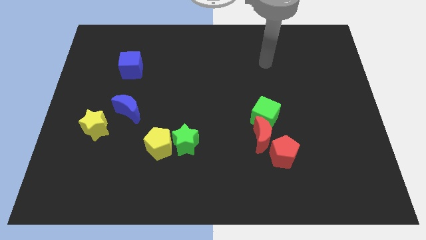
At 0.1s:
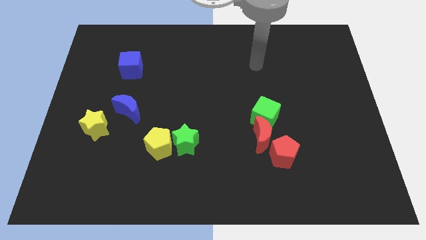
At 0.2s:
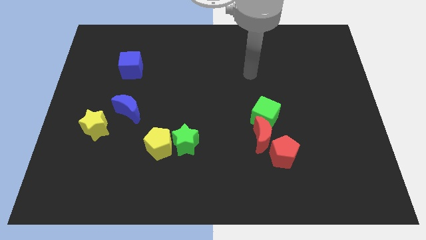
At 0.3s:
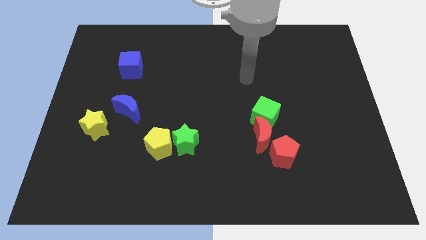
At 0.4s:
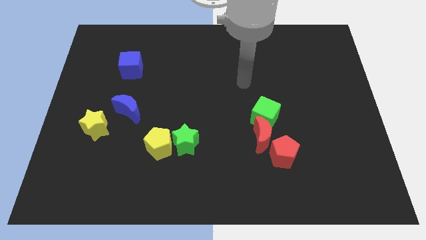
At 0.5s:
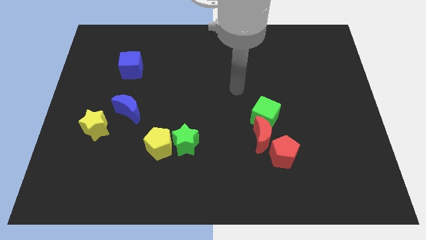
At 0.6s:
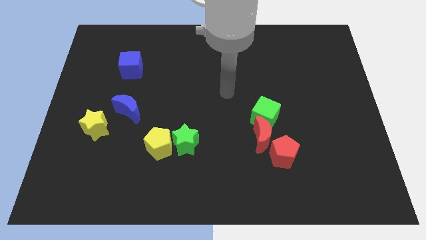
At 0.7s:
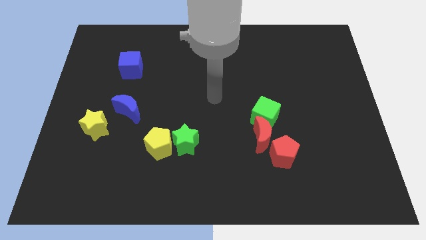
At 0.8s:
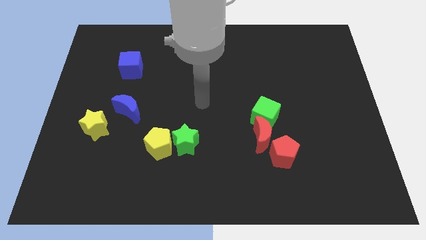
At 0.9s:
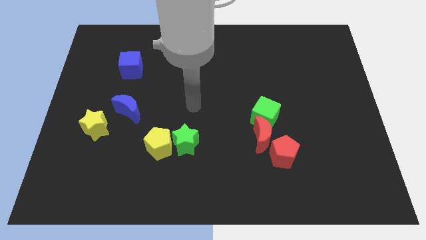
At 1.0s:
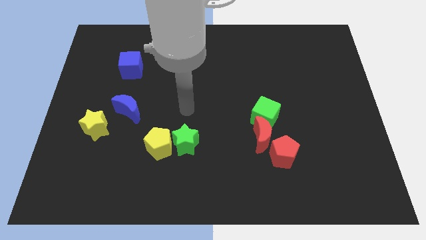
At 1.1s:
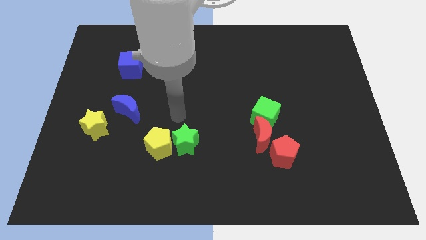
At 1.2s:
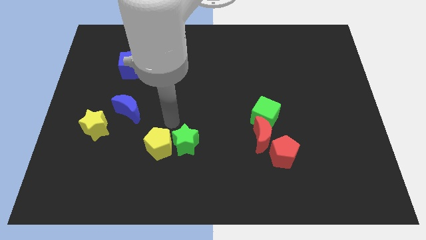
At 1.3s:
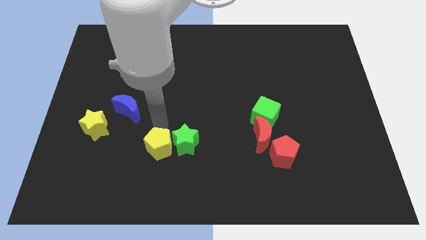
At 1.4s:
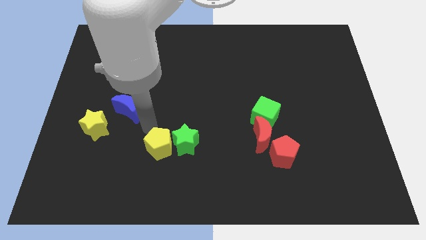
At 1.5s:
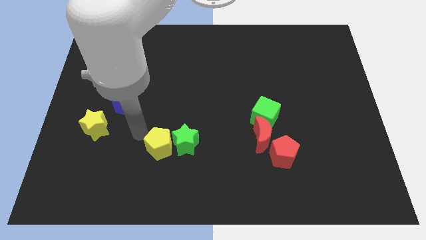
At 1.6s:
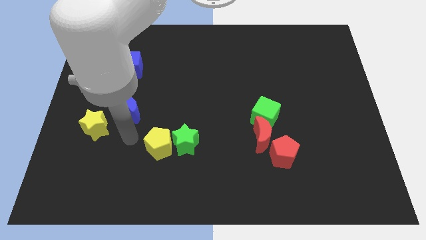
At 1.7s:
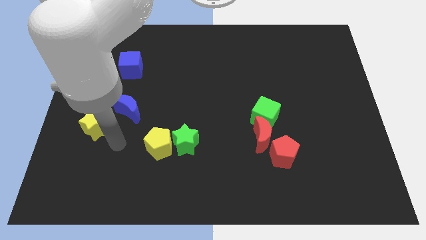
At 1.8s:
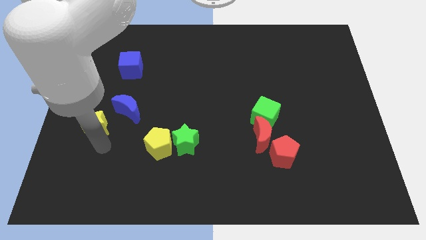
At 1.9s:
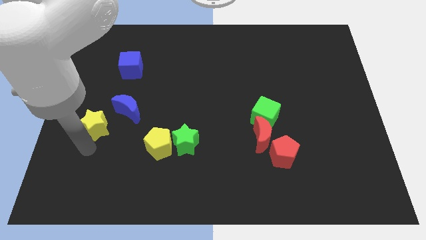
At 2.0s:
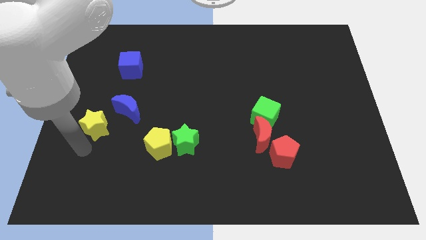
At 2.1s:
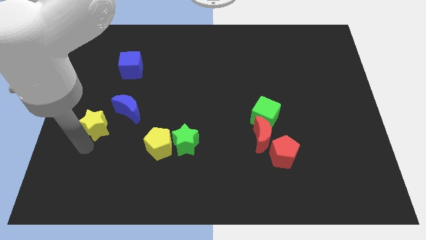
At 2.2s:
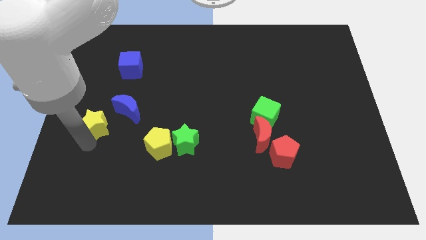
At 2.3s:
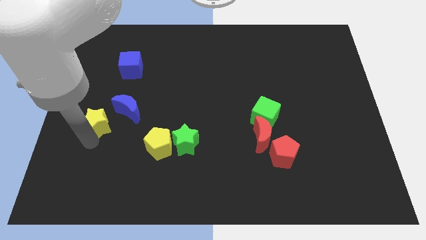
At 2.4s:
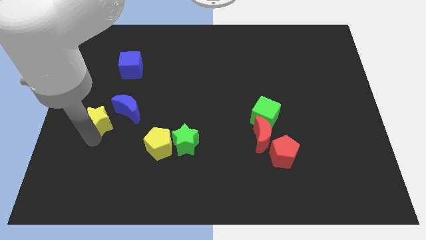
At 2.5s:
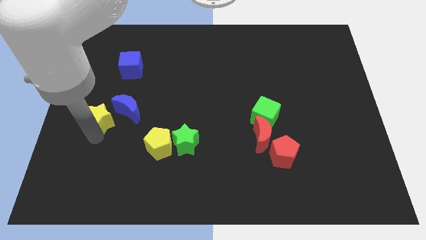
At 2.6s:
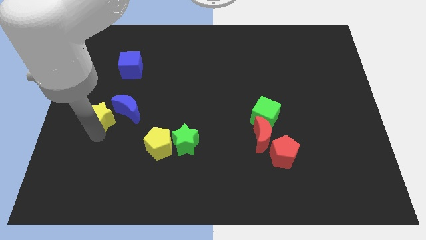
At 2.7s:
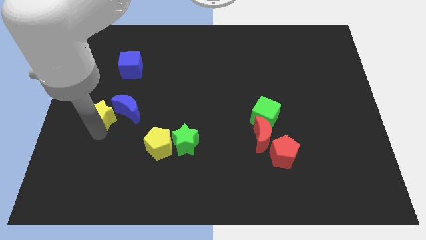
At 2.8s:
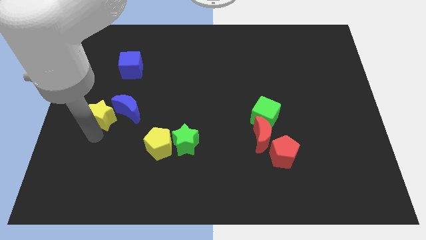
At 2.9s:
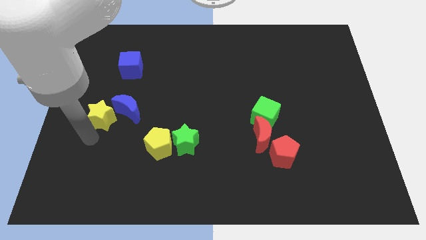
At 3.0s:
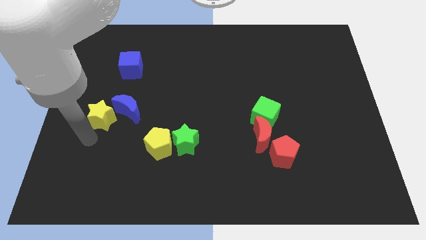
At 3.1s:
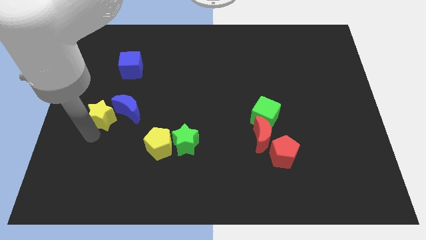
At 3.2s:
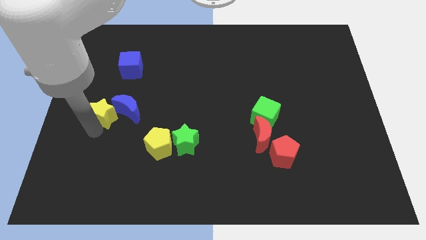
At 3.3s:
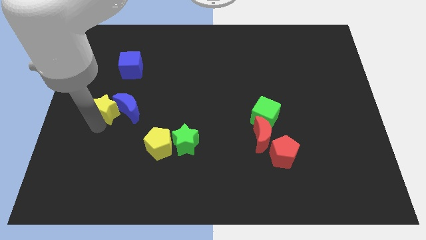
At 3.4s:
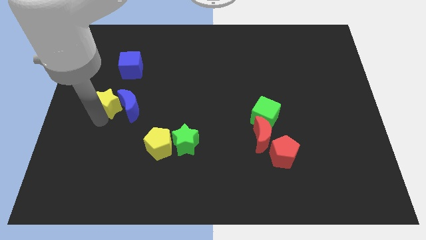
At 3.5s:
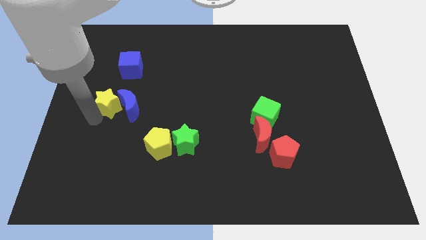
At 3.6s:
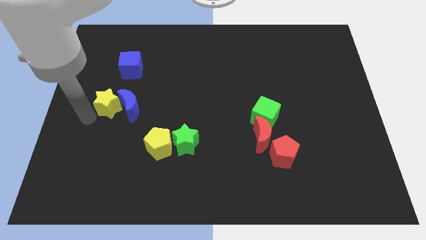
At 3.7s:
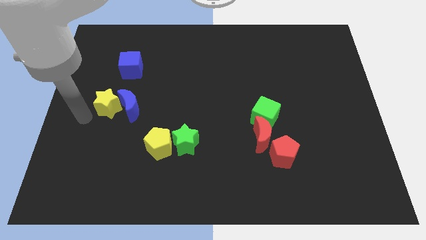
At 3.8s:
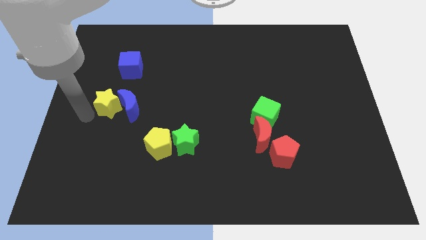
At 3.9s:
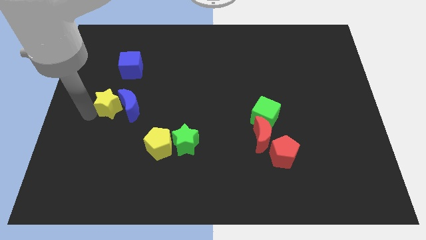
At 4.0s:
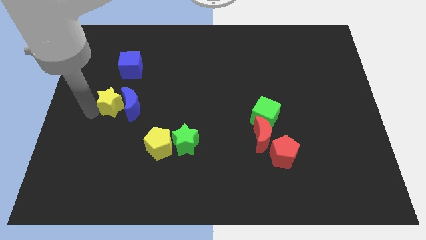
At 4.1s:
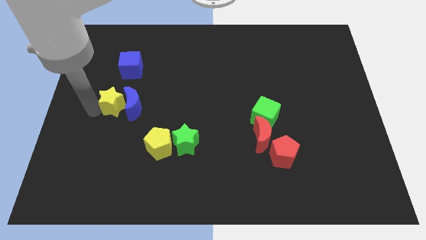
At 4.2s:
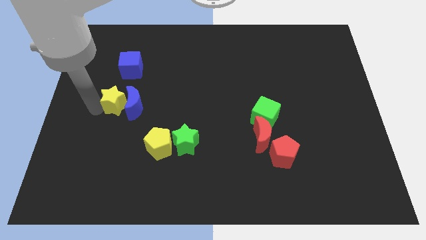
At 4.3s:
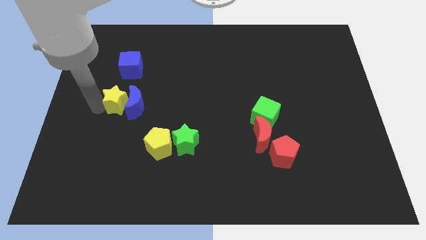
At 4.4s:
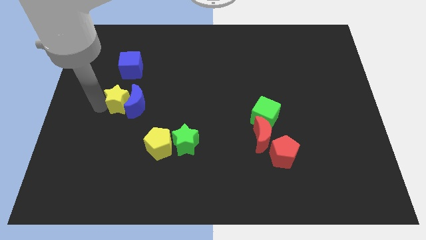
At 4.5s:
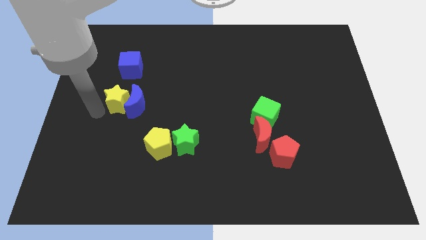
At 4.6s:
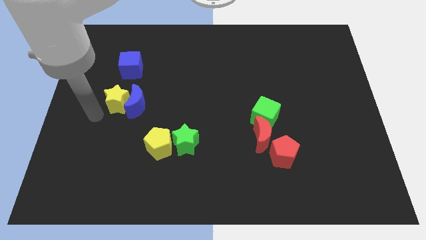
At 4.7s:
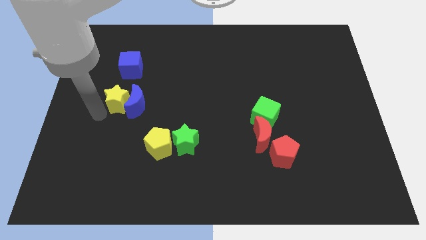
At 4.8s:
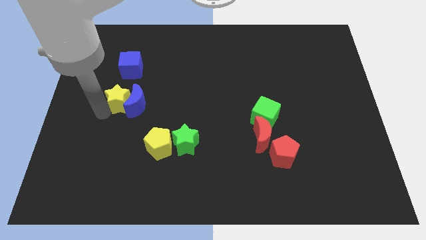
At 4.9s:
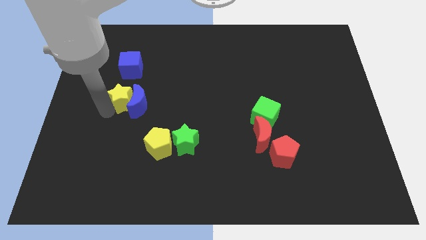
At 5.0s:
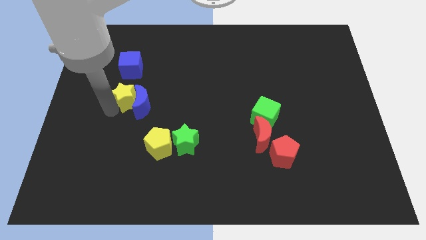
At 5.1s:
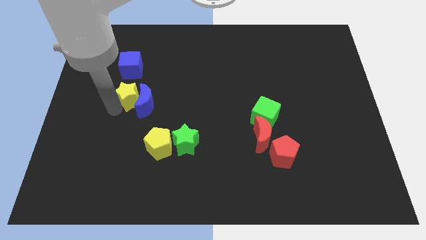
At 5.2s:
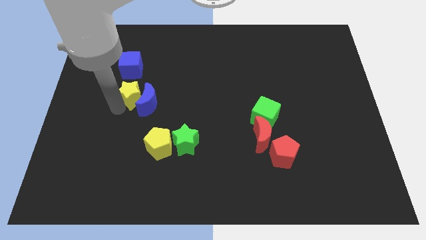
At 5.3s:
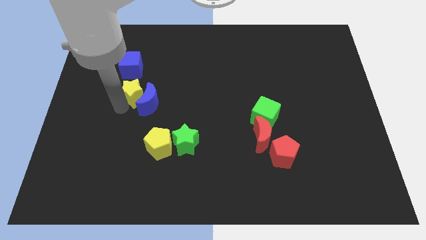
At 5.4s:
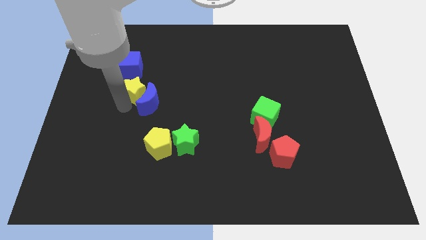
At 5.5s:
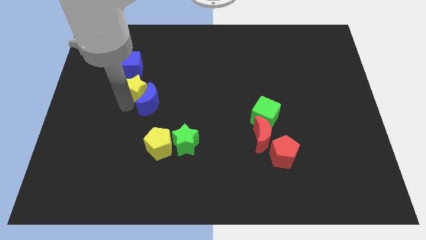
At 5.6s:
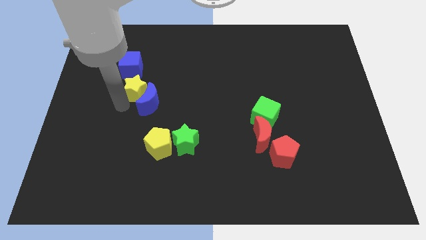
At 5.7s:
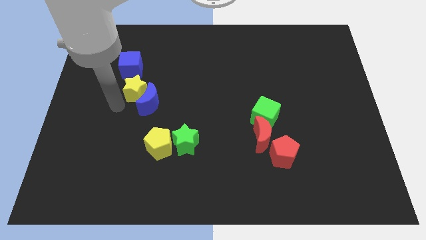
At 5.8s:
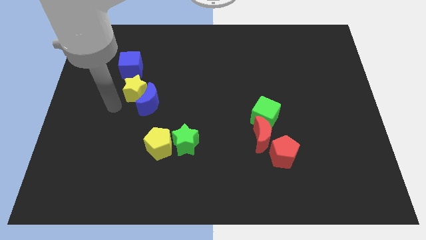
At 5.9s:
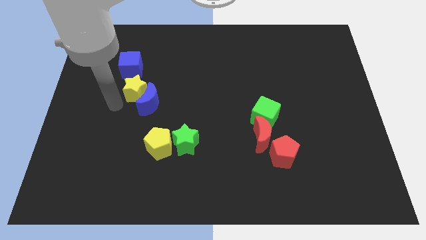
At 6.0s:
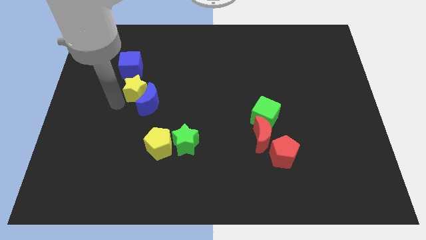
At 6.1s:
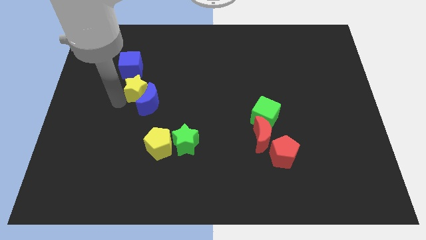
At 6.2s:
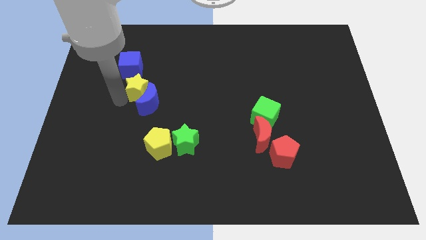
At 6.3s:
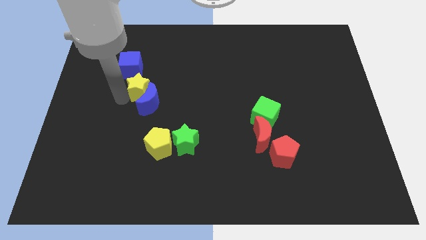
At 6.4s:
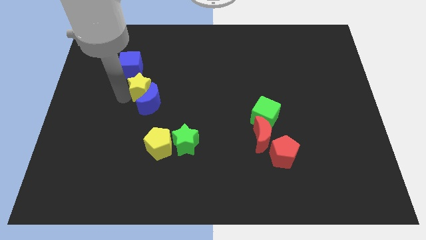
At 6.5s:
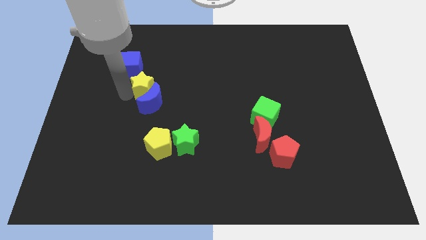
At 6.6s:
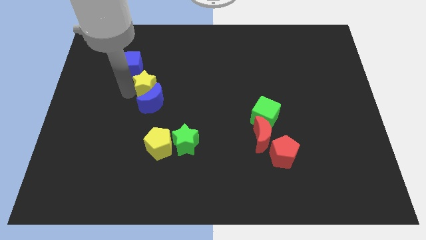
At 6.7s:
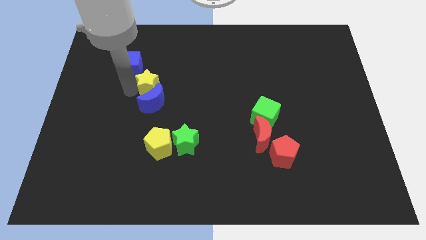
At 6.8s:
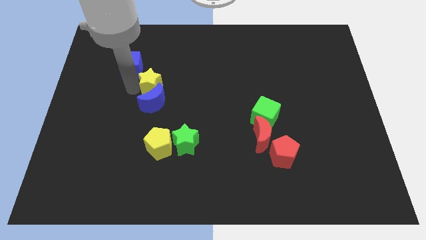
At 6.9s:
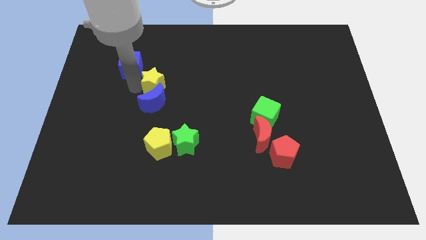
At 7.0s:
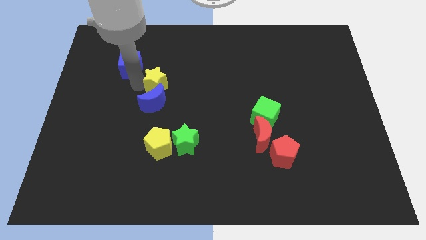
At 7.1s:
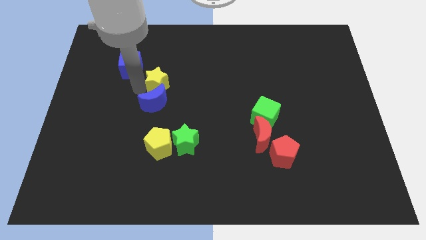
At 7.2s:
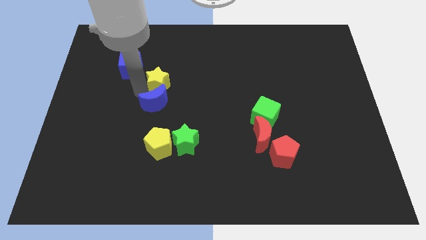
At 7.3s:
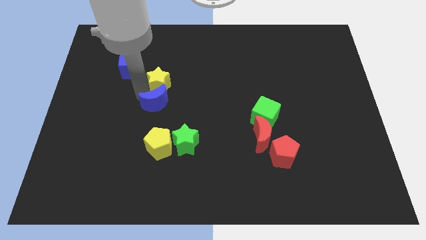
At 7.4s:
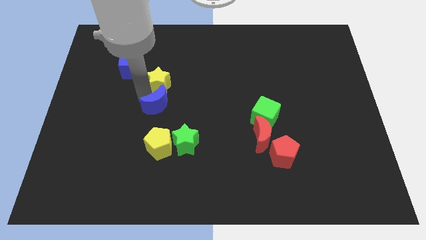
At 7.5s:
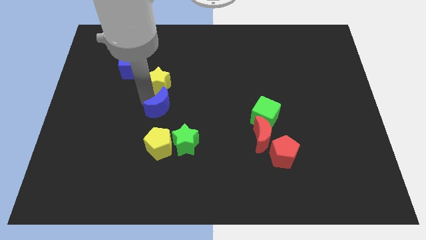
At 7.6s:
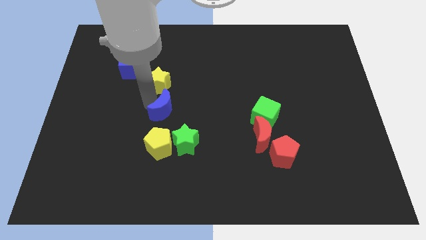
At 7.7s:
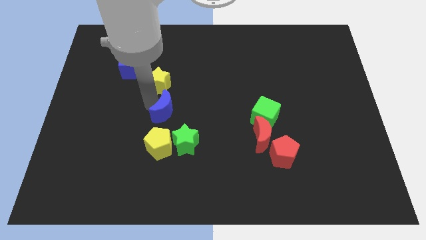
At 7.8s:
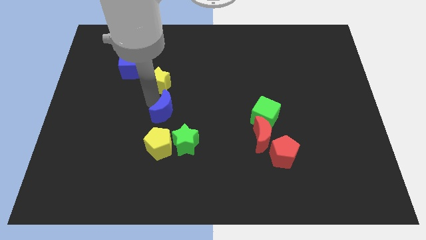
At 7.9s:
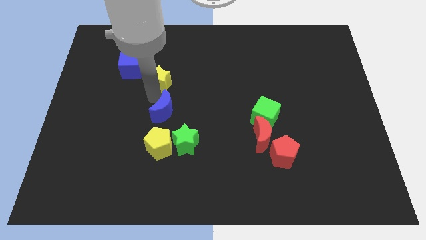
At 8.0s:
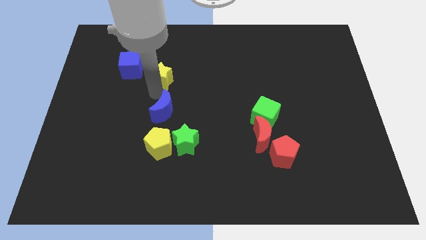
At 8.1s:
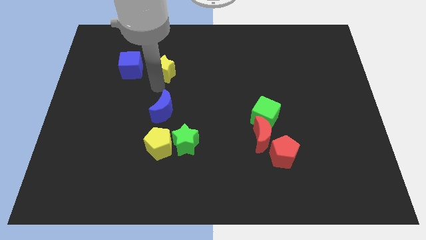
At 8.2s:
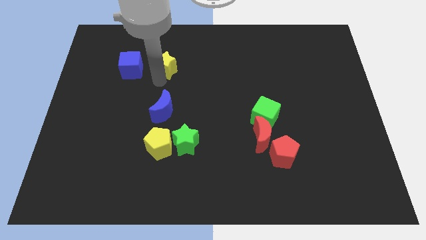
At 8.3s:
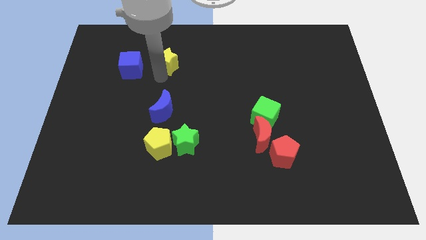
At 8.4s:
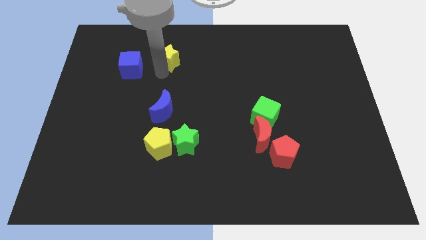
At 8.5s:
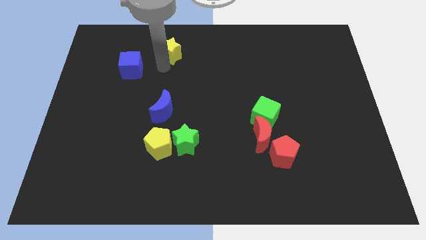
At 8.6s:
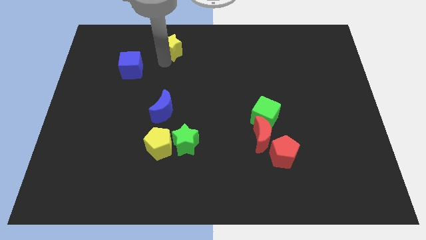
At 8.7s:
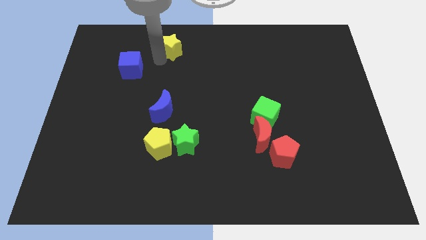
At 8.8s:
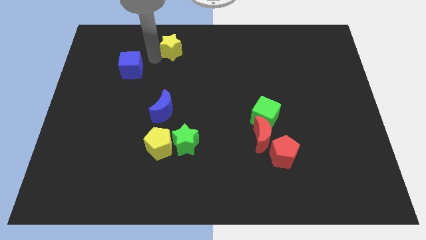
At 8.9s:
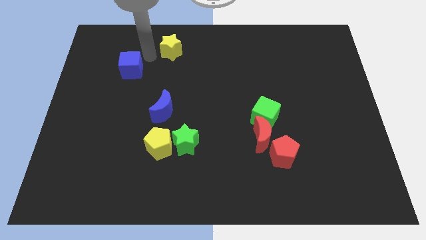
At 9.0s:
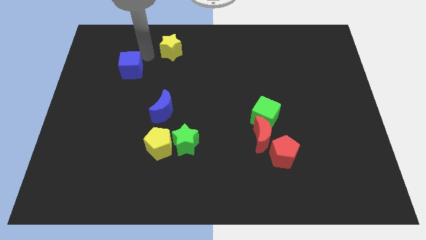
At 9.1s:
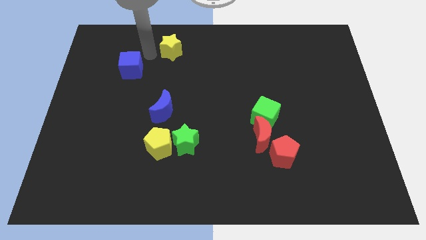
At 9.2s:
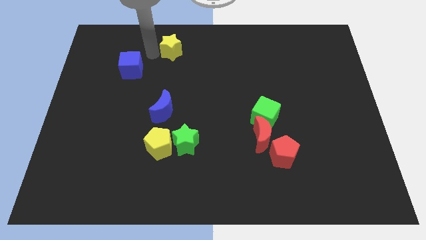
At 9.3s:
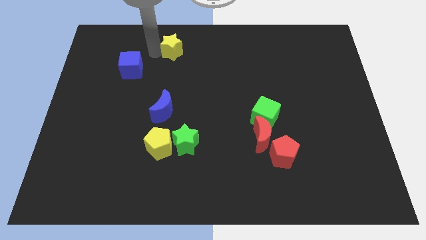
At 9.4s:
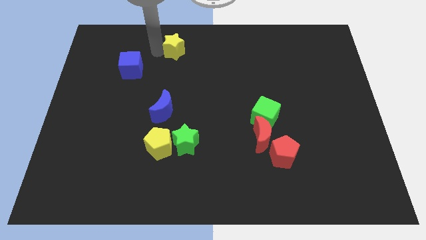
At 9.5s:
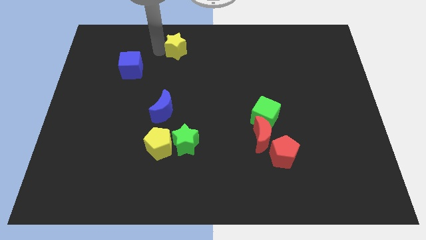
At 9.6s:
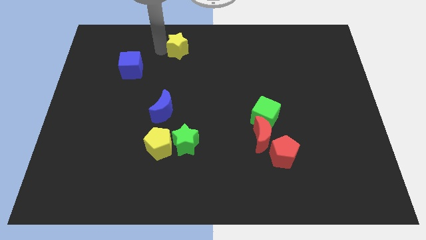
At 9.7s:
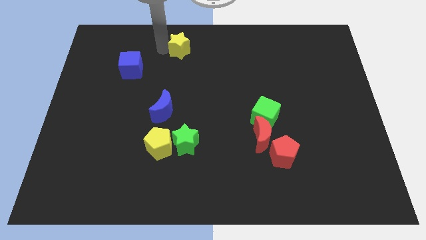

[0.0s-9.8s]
slide the yellow star to the top
